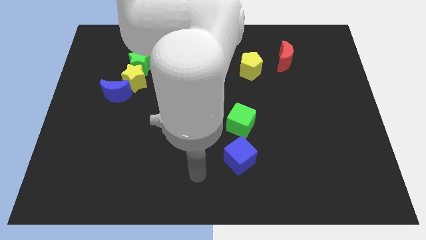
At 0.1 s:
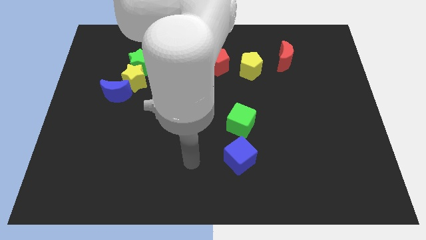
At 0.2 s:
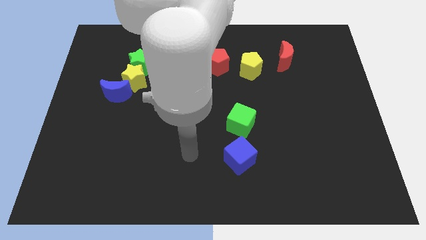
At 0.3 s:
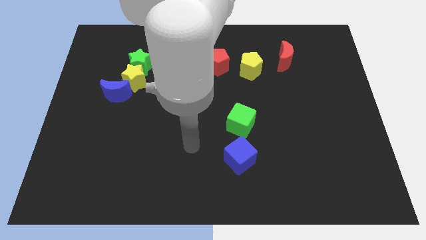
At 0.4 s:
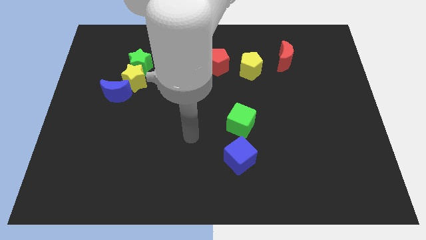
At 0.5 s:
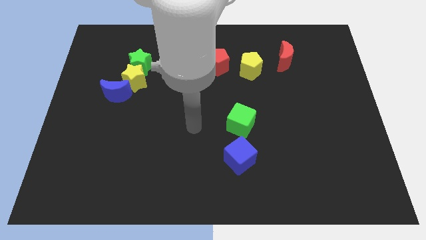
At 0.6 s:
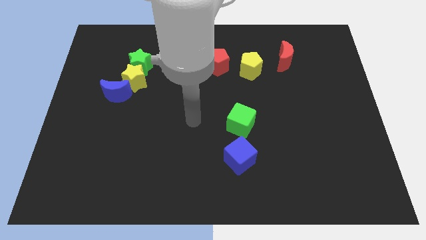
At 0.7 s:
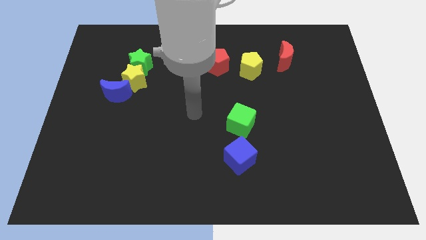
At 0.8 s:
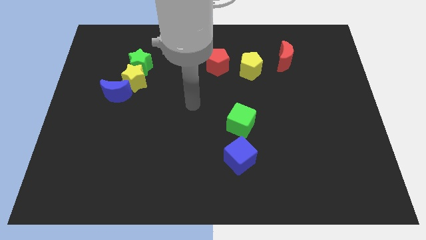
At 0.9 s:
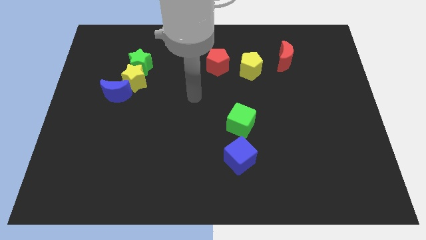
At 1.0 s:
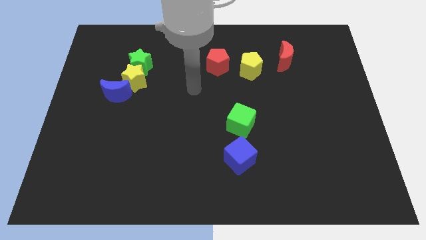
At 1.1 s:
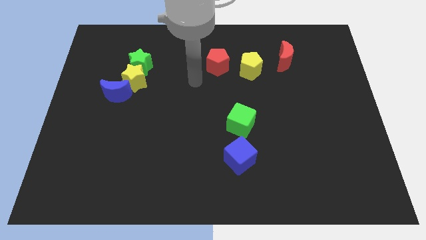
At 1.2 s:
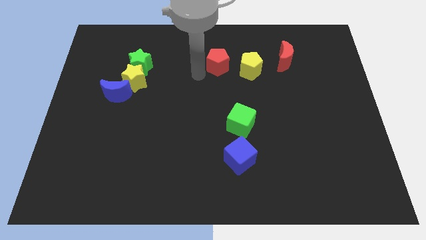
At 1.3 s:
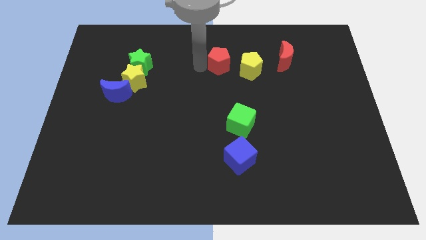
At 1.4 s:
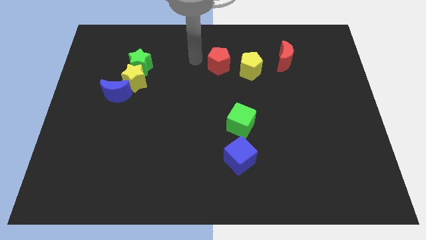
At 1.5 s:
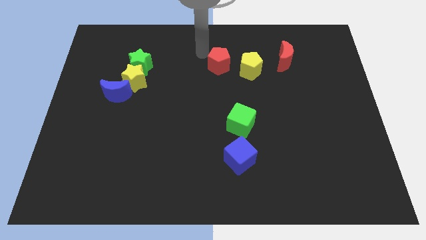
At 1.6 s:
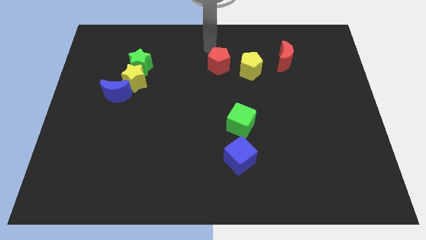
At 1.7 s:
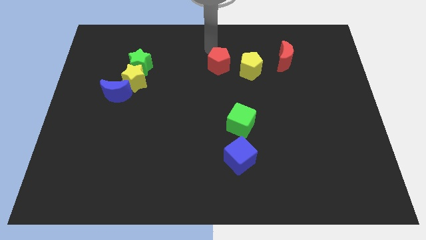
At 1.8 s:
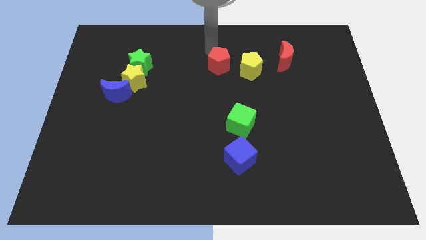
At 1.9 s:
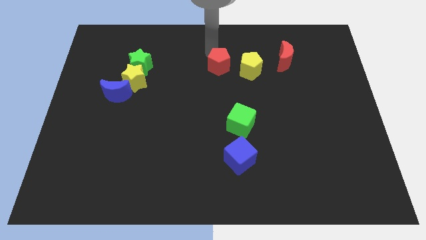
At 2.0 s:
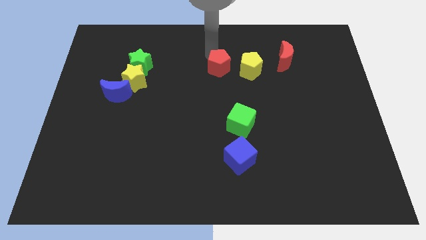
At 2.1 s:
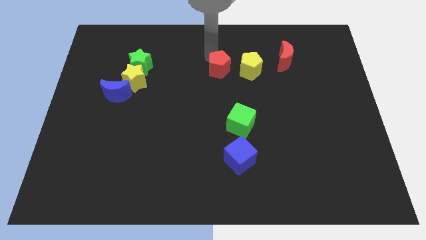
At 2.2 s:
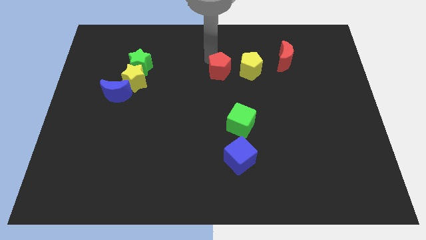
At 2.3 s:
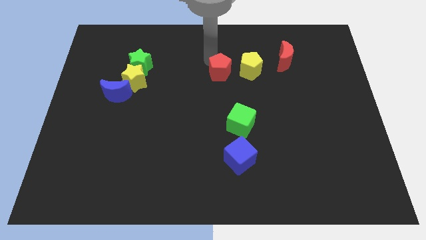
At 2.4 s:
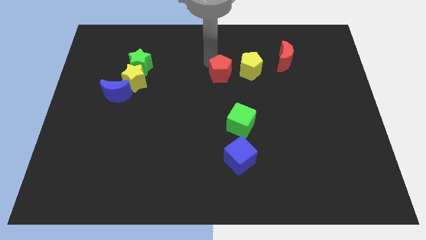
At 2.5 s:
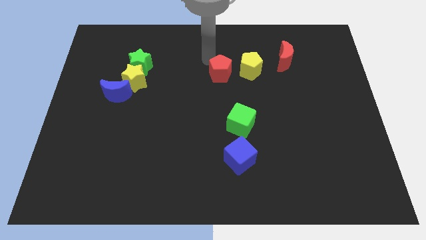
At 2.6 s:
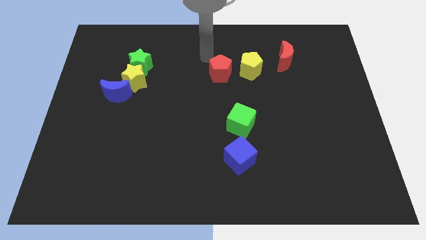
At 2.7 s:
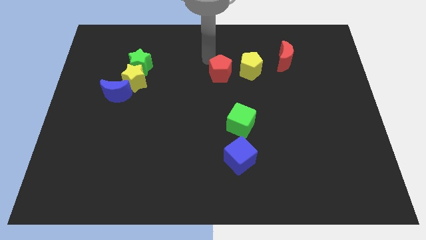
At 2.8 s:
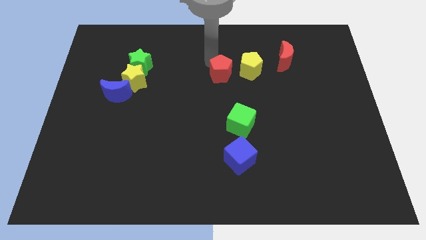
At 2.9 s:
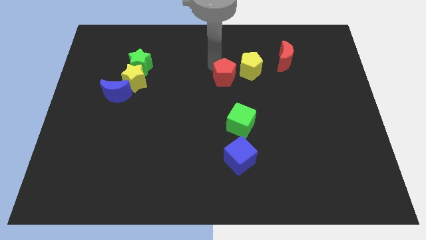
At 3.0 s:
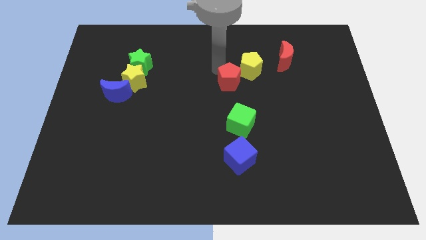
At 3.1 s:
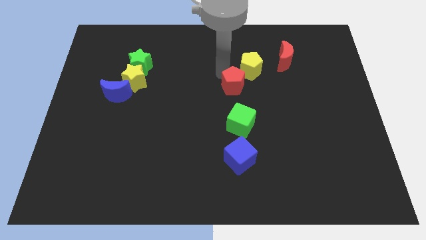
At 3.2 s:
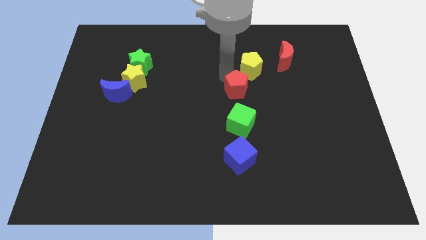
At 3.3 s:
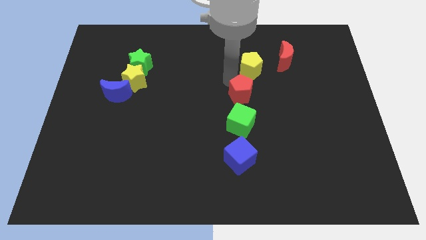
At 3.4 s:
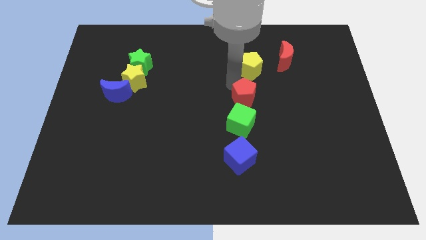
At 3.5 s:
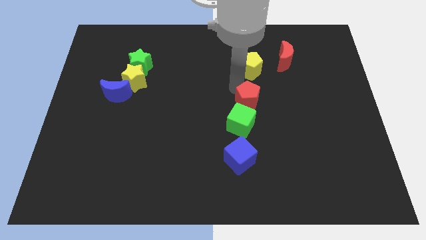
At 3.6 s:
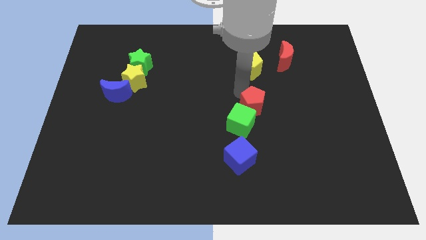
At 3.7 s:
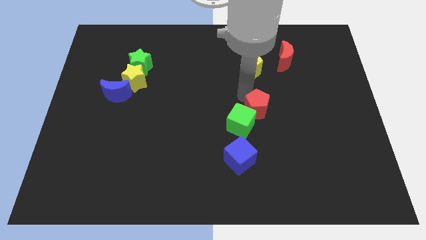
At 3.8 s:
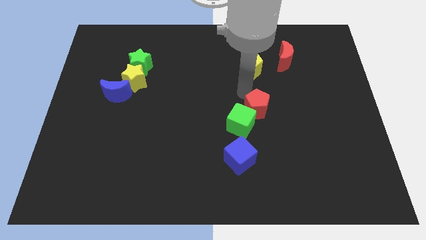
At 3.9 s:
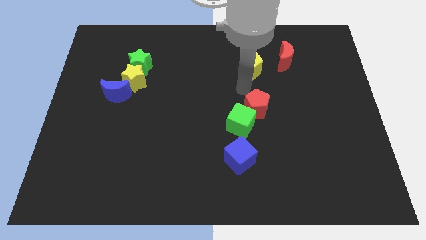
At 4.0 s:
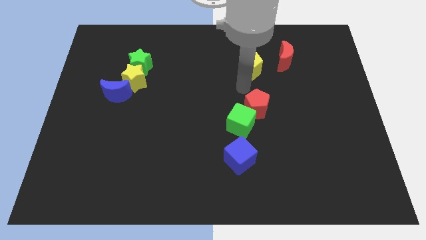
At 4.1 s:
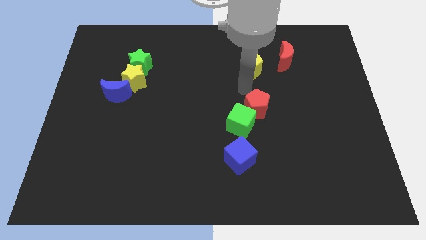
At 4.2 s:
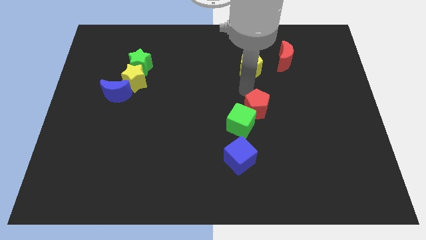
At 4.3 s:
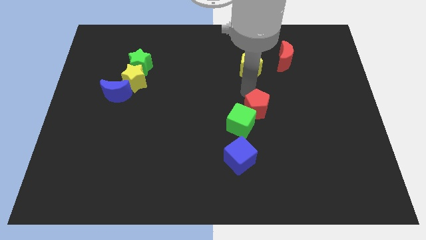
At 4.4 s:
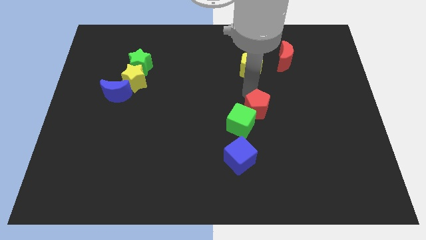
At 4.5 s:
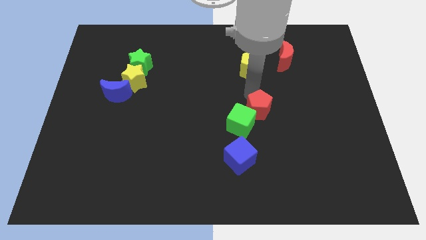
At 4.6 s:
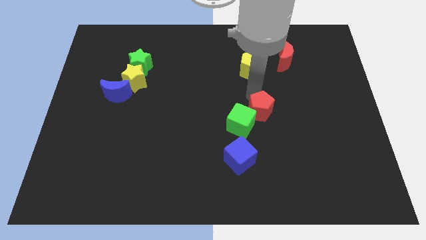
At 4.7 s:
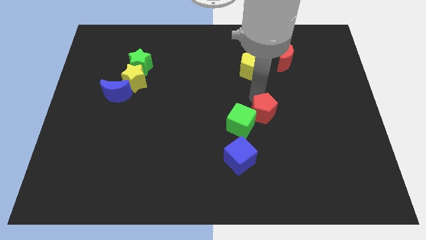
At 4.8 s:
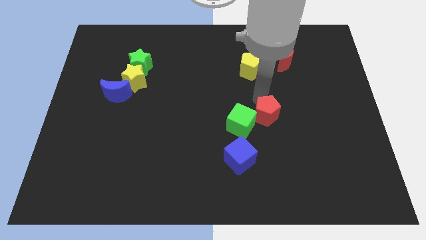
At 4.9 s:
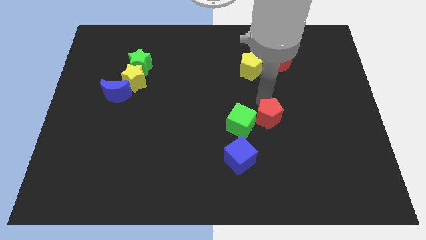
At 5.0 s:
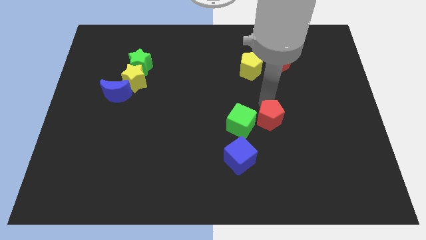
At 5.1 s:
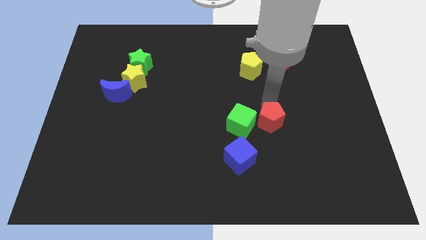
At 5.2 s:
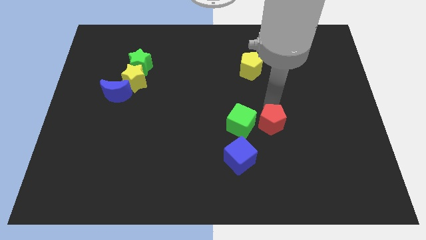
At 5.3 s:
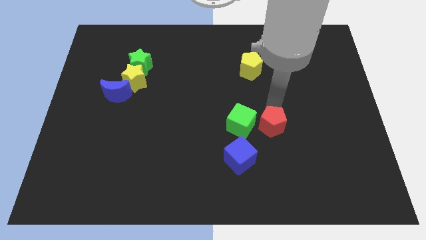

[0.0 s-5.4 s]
slide the red pentagon to the bottom right side of the green cube

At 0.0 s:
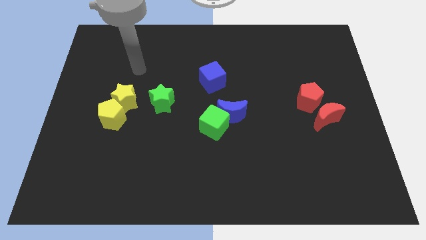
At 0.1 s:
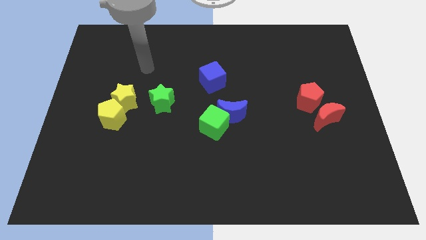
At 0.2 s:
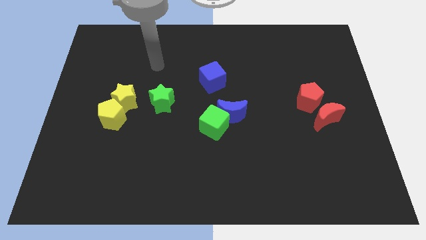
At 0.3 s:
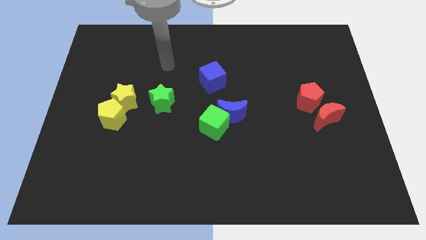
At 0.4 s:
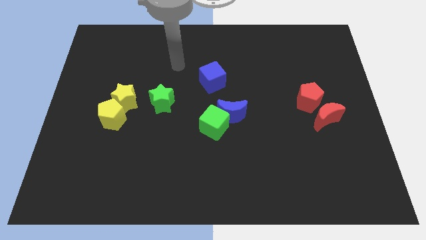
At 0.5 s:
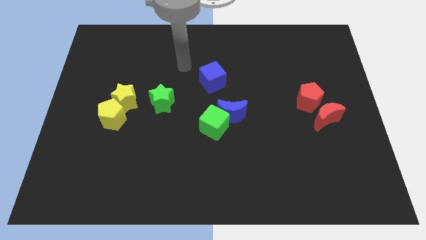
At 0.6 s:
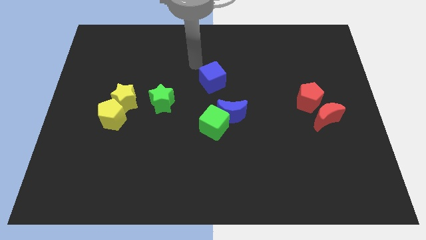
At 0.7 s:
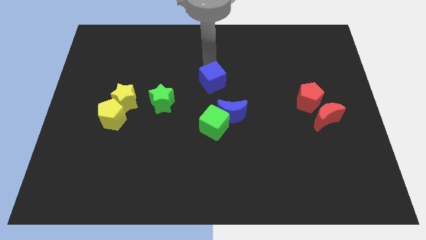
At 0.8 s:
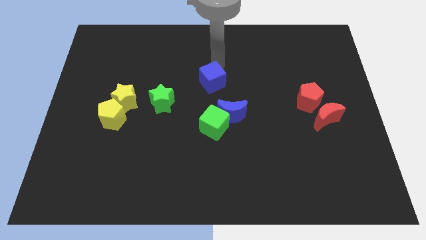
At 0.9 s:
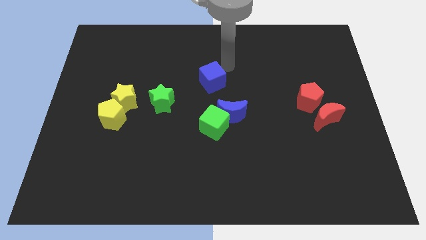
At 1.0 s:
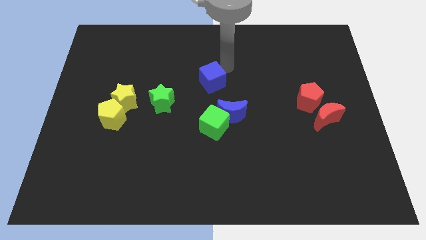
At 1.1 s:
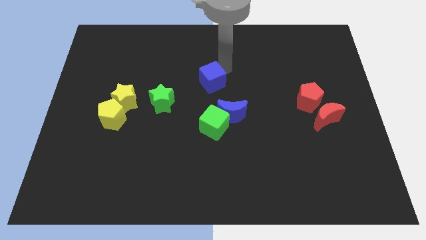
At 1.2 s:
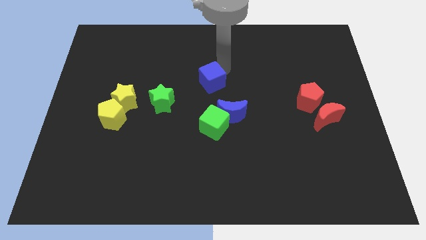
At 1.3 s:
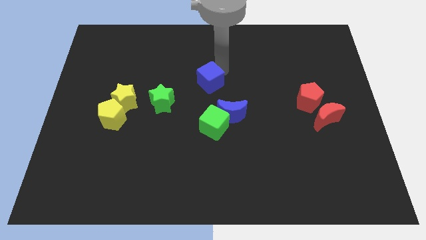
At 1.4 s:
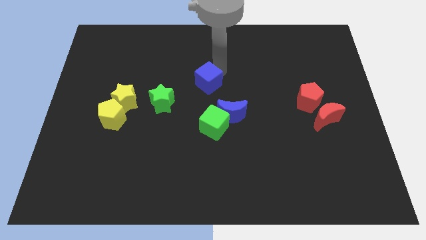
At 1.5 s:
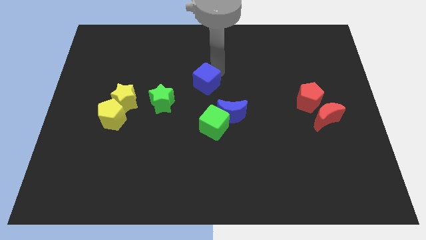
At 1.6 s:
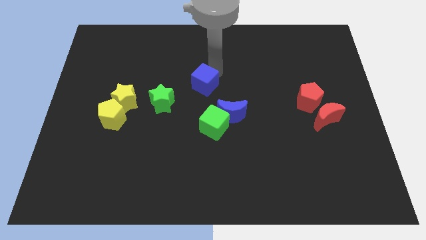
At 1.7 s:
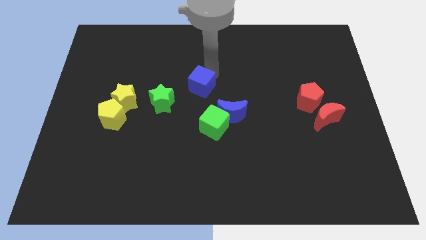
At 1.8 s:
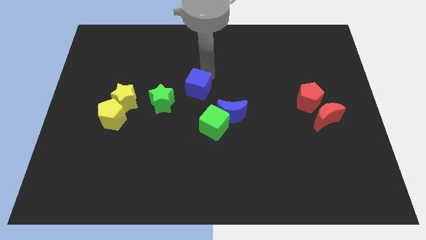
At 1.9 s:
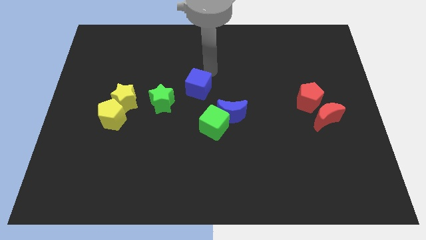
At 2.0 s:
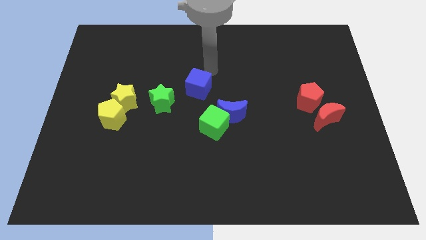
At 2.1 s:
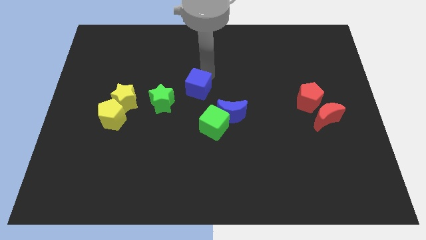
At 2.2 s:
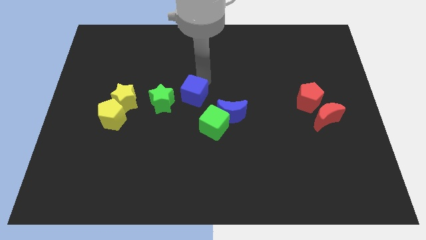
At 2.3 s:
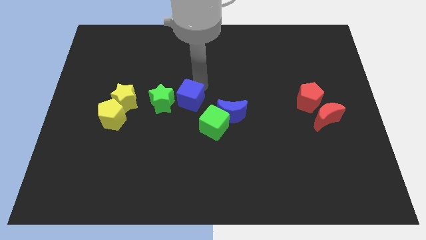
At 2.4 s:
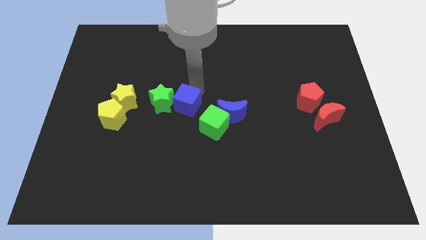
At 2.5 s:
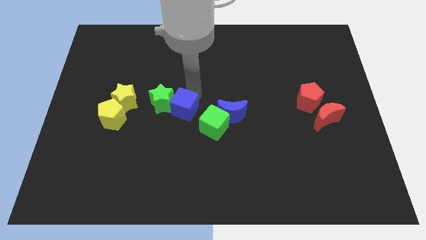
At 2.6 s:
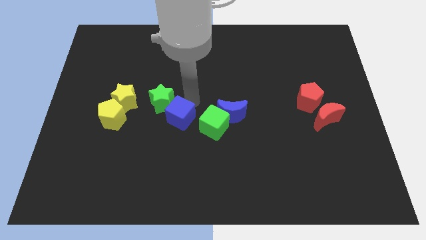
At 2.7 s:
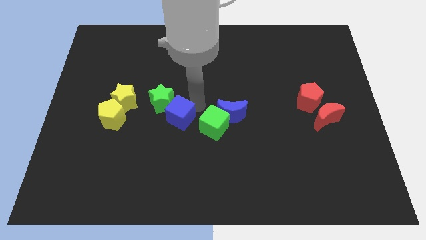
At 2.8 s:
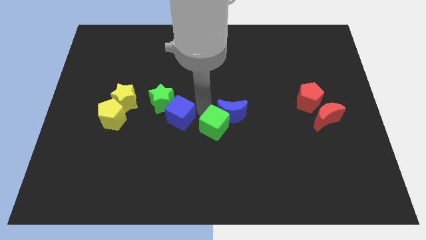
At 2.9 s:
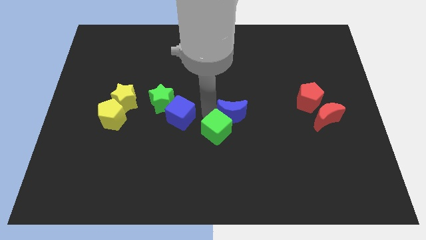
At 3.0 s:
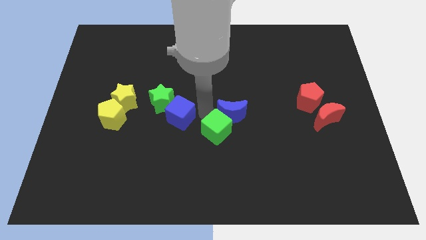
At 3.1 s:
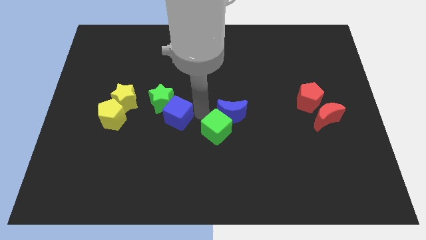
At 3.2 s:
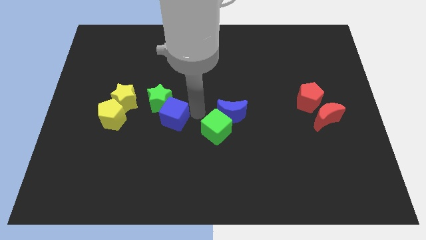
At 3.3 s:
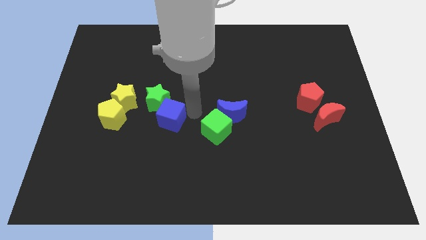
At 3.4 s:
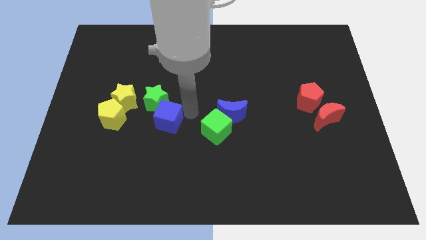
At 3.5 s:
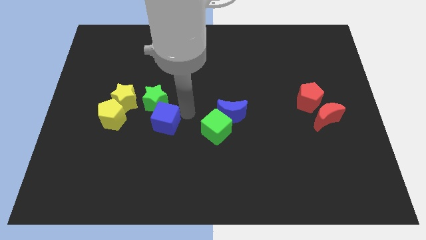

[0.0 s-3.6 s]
slide the blue cube to the bottom right side of the yellow star
